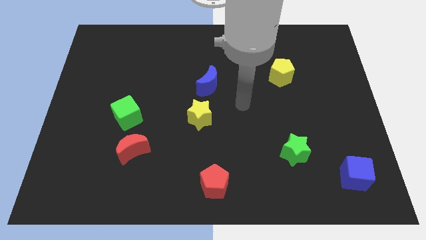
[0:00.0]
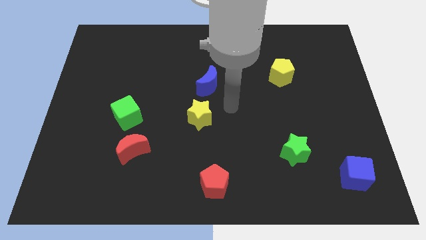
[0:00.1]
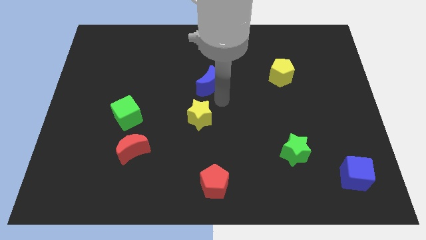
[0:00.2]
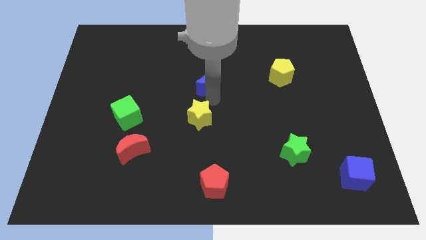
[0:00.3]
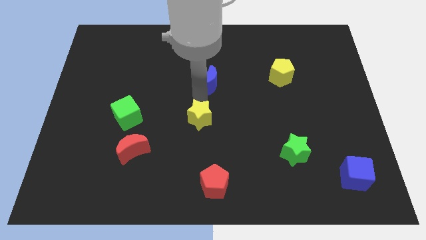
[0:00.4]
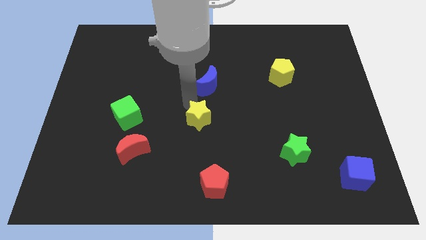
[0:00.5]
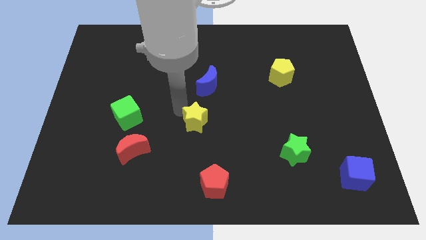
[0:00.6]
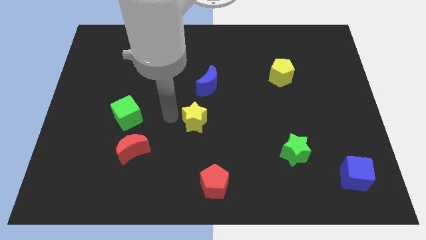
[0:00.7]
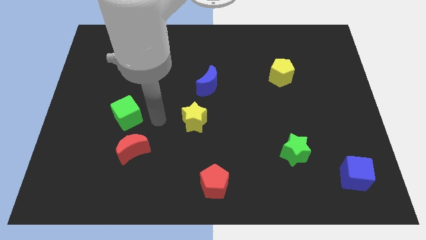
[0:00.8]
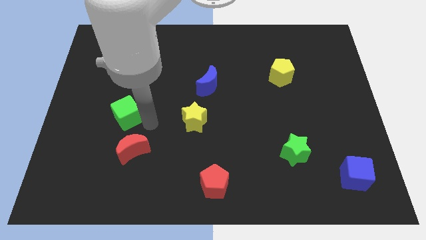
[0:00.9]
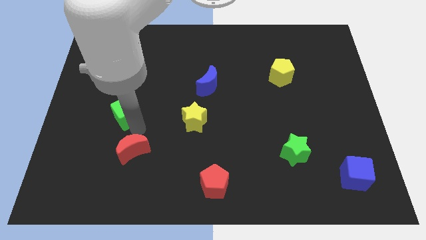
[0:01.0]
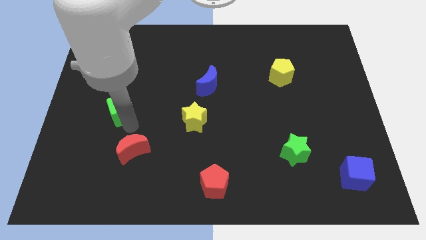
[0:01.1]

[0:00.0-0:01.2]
move the red moon away from the green cube

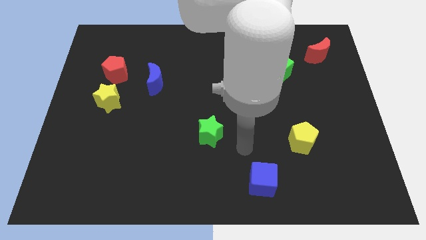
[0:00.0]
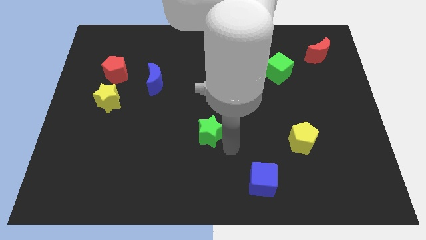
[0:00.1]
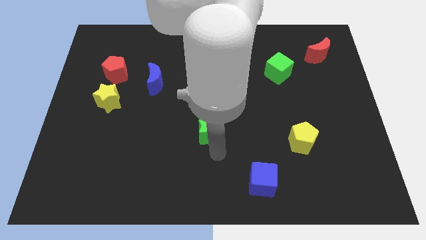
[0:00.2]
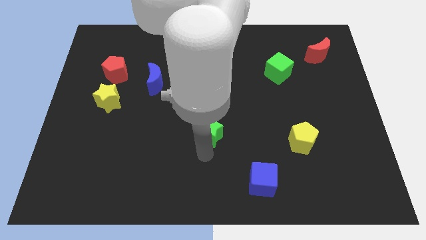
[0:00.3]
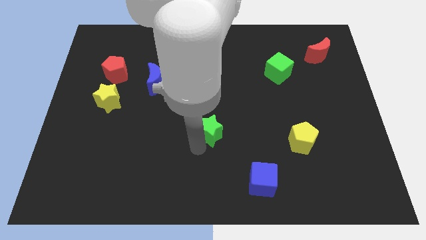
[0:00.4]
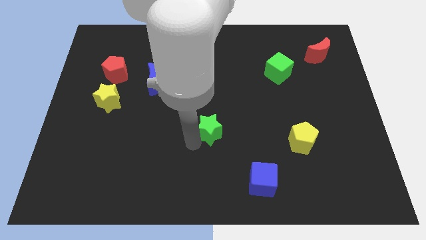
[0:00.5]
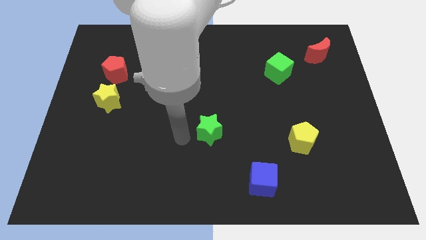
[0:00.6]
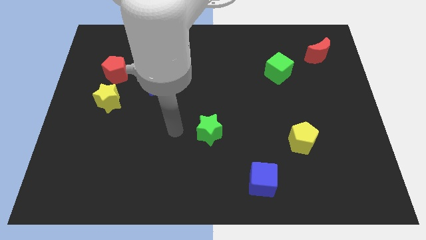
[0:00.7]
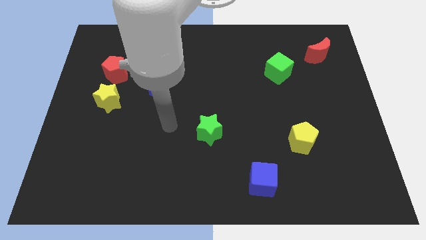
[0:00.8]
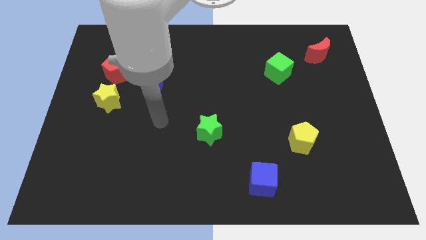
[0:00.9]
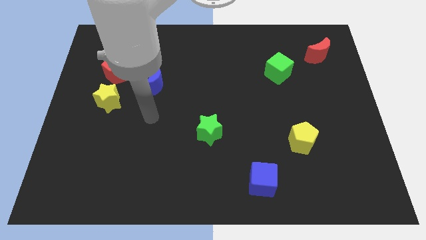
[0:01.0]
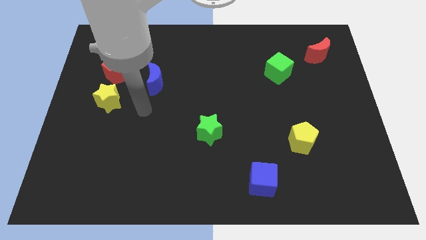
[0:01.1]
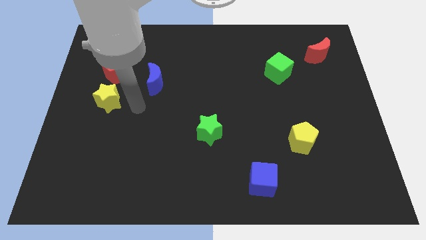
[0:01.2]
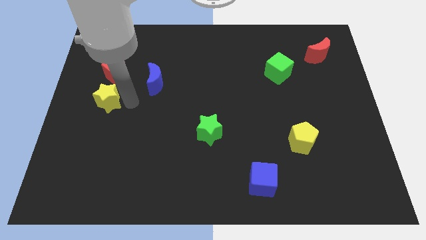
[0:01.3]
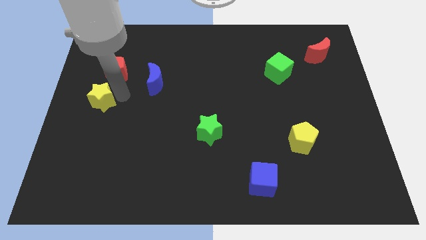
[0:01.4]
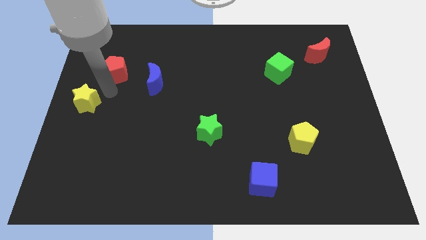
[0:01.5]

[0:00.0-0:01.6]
pull the red pentagon apart from the yellow star

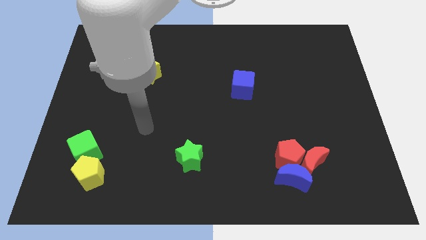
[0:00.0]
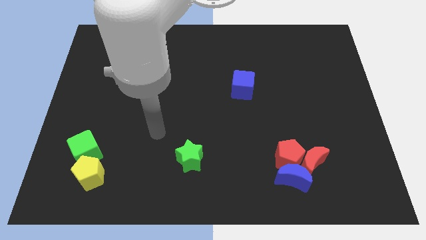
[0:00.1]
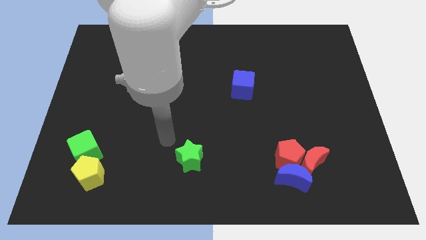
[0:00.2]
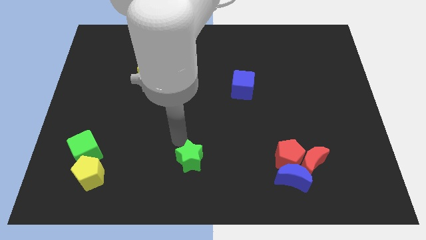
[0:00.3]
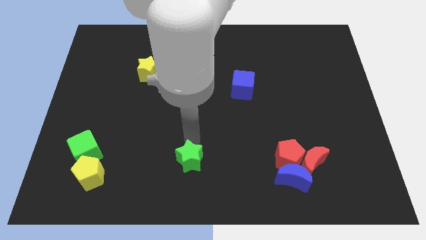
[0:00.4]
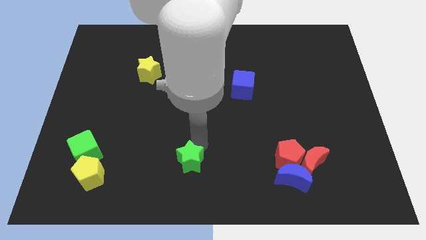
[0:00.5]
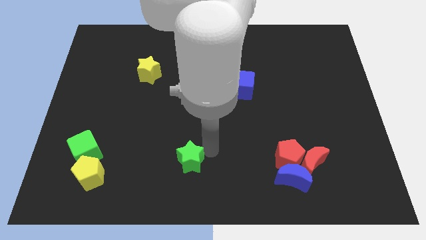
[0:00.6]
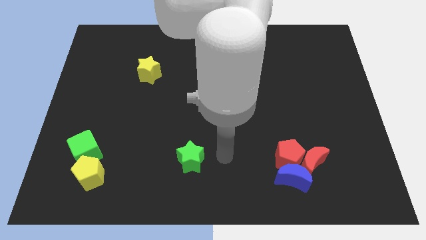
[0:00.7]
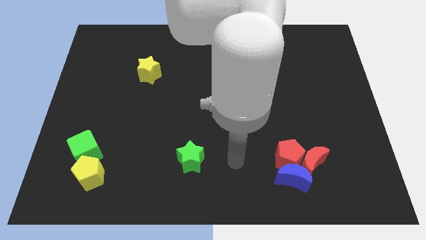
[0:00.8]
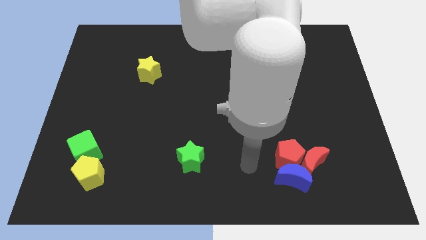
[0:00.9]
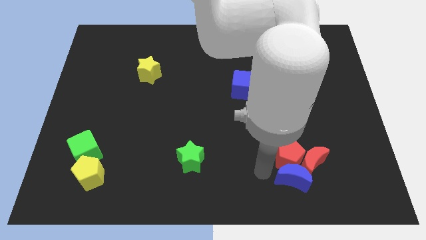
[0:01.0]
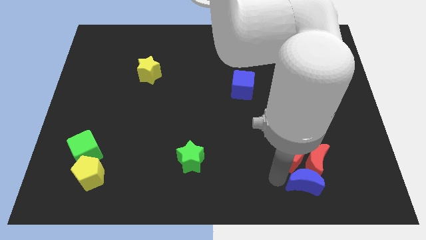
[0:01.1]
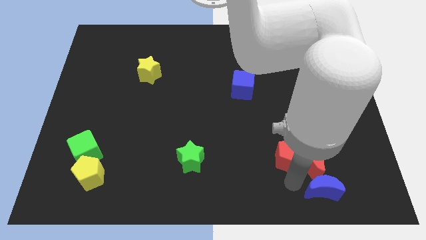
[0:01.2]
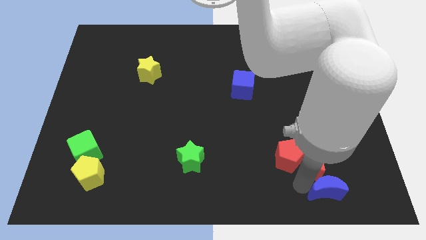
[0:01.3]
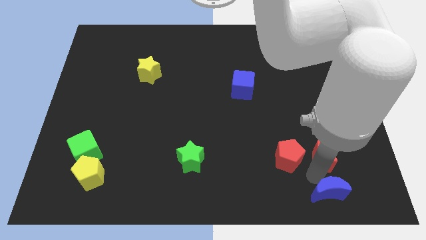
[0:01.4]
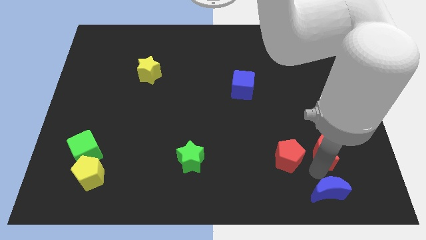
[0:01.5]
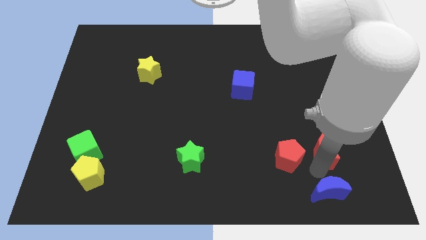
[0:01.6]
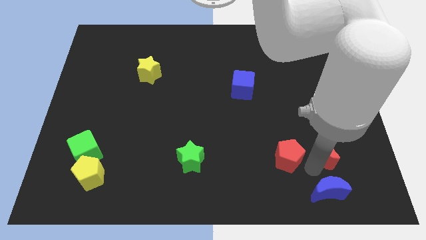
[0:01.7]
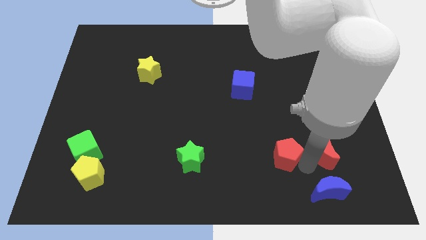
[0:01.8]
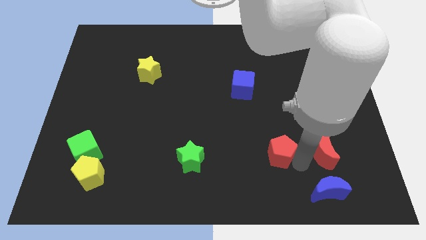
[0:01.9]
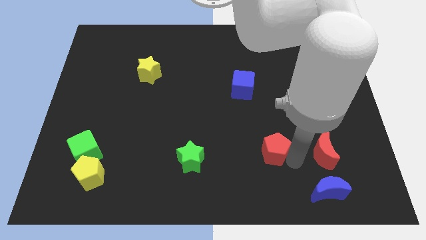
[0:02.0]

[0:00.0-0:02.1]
separate the red pentagon from the blue moon and red moon

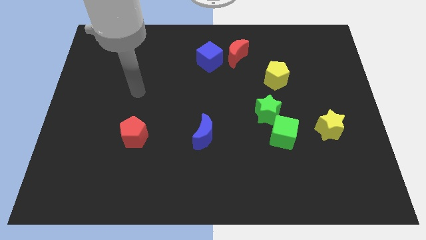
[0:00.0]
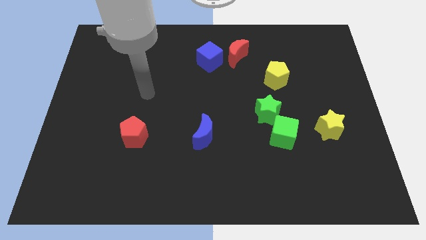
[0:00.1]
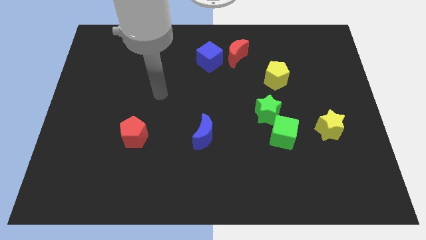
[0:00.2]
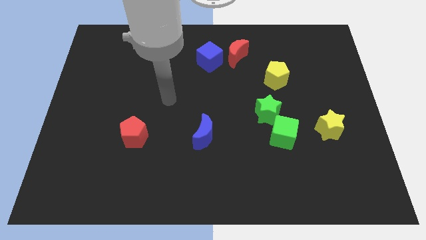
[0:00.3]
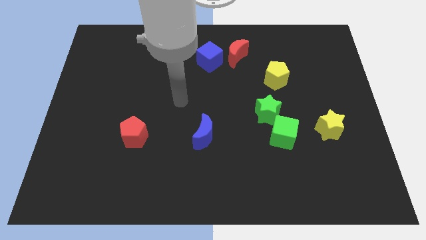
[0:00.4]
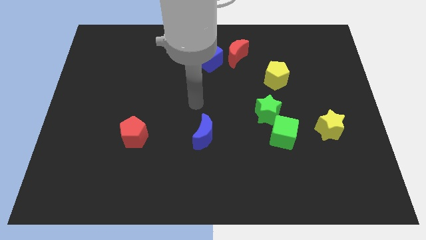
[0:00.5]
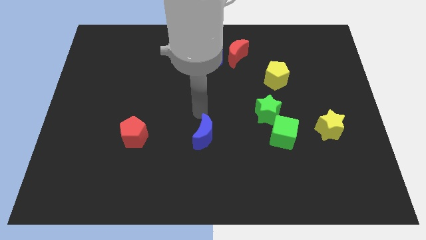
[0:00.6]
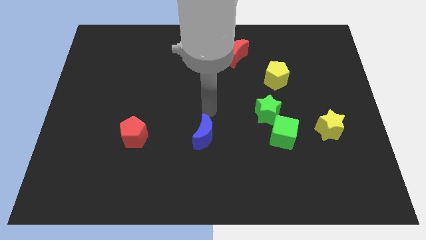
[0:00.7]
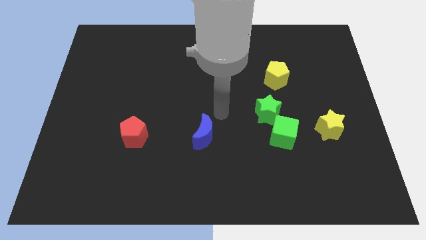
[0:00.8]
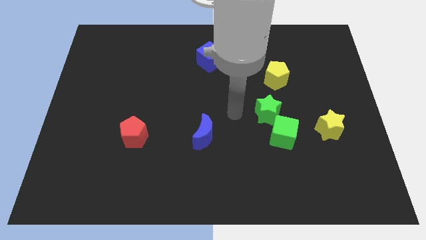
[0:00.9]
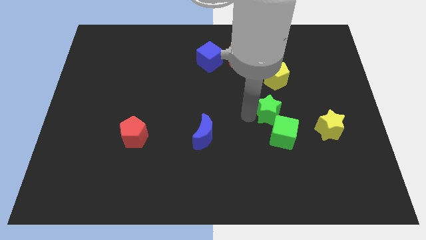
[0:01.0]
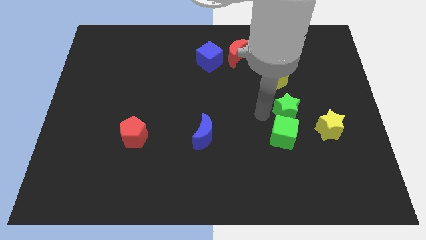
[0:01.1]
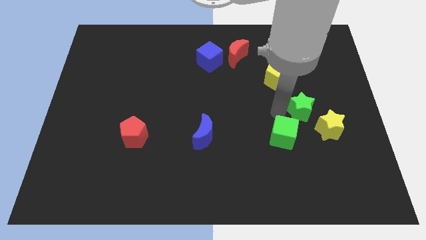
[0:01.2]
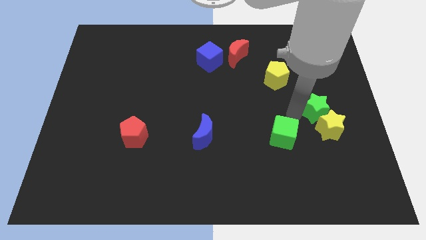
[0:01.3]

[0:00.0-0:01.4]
move the green cube away from the green star

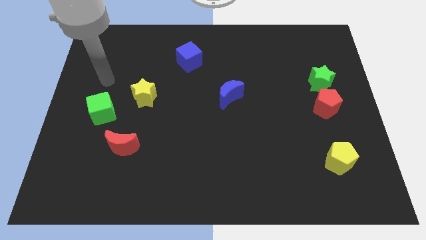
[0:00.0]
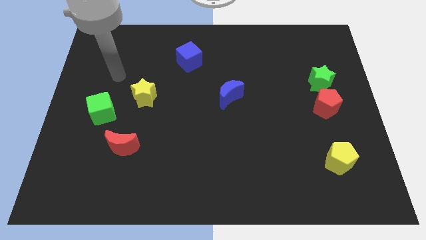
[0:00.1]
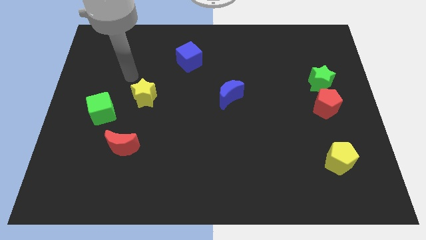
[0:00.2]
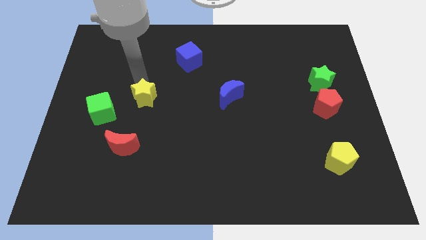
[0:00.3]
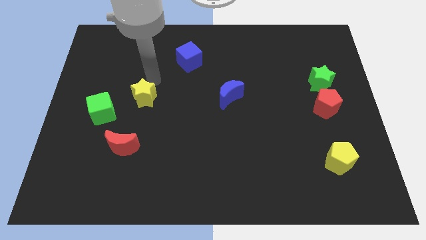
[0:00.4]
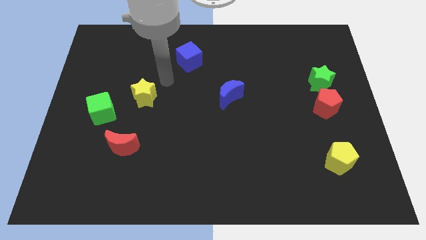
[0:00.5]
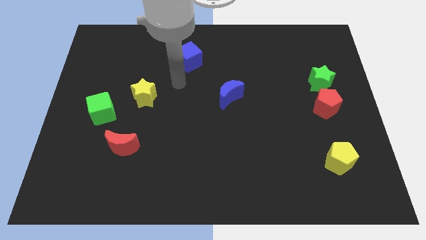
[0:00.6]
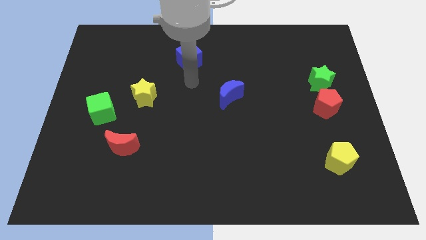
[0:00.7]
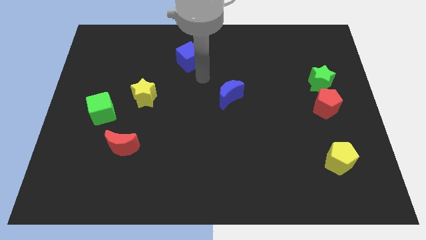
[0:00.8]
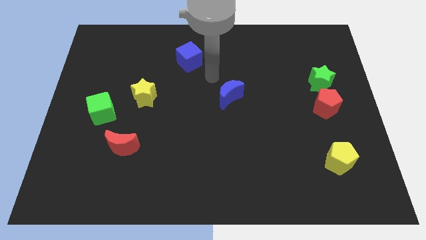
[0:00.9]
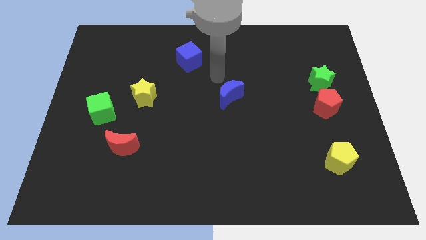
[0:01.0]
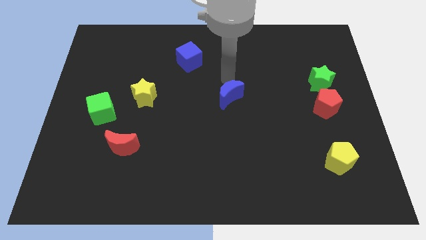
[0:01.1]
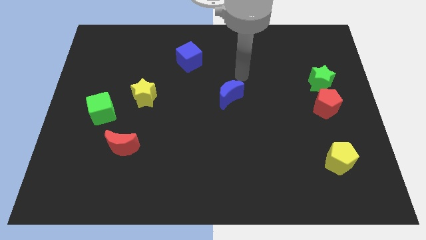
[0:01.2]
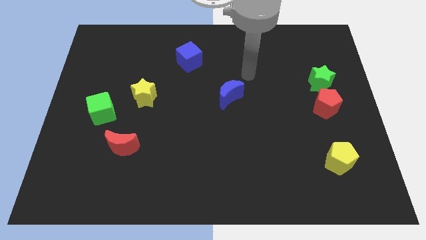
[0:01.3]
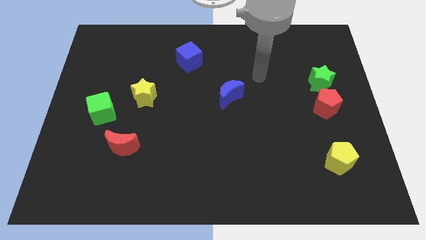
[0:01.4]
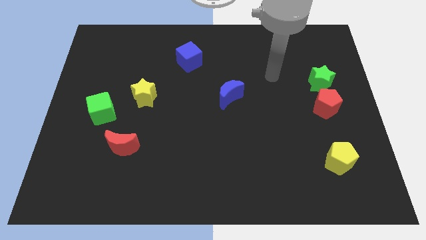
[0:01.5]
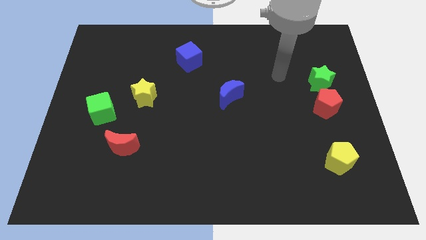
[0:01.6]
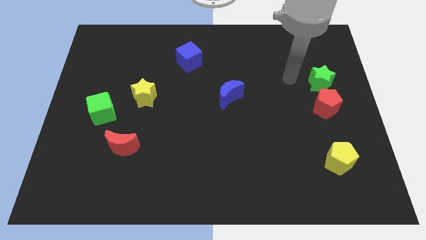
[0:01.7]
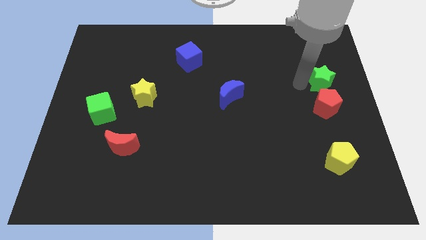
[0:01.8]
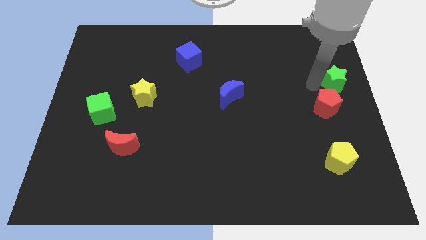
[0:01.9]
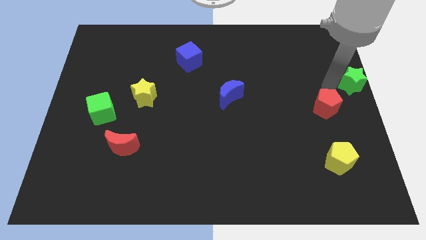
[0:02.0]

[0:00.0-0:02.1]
move the red pentagon away from the green star

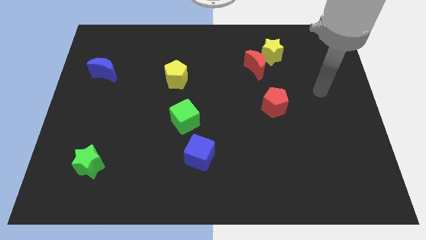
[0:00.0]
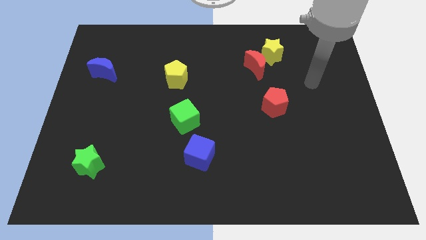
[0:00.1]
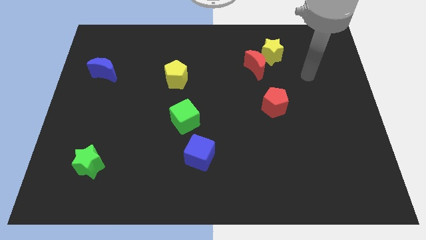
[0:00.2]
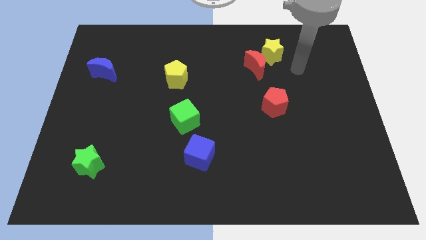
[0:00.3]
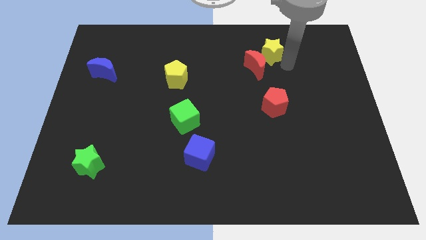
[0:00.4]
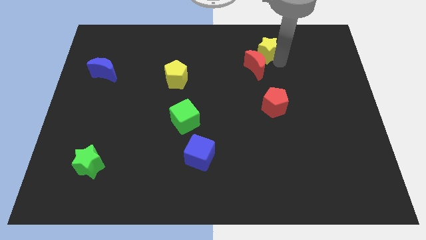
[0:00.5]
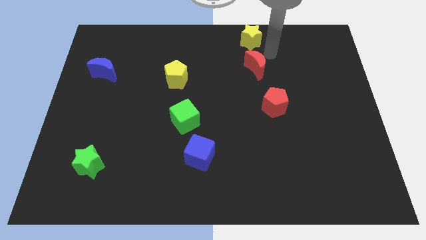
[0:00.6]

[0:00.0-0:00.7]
separate the red moon from the yellow star

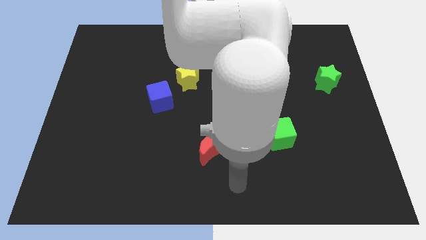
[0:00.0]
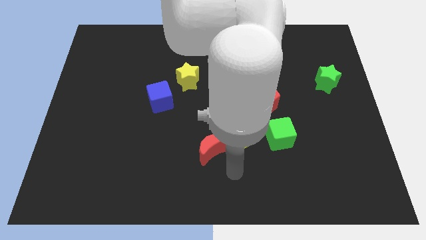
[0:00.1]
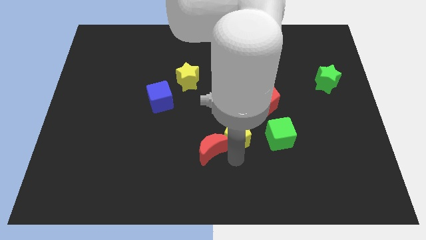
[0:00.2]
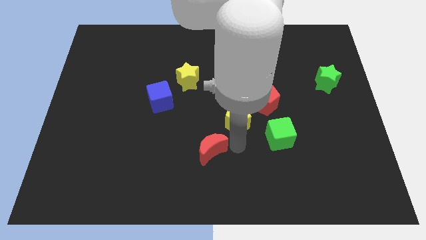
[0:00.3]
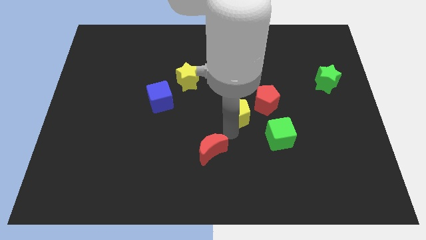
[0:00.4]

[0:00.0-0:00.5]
move the red moon away from the yellow pentagon
